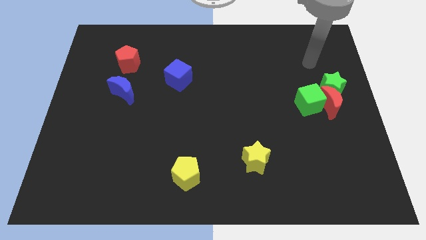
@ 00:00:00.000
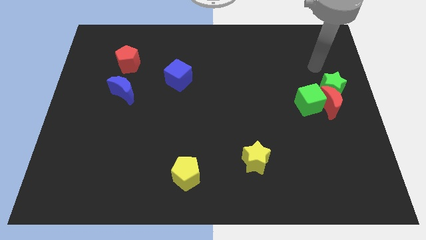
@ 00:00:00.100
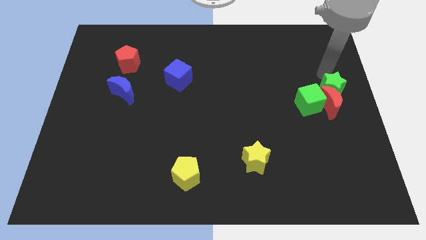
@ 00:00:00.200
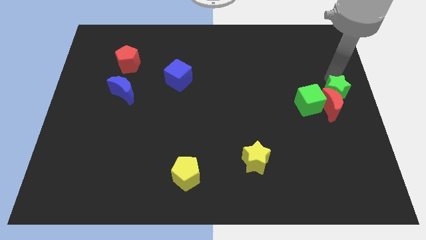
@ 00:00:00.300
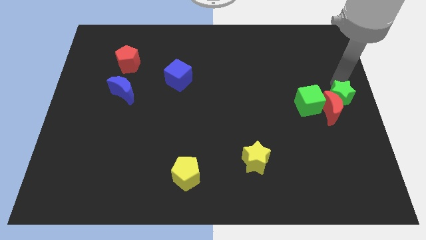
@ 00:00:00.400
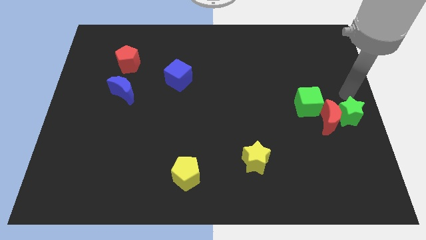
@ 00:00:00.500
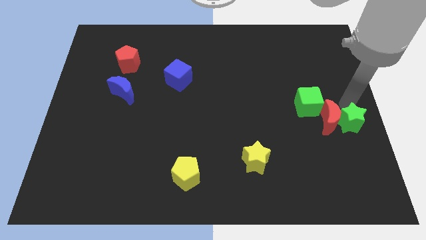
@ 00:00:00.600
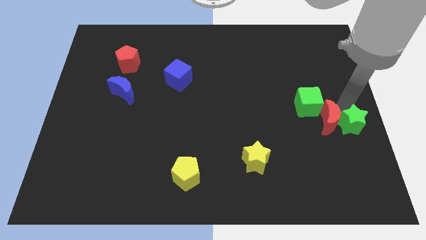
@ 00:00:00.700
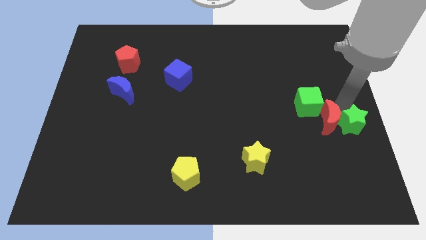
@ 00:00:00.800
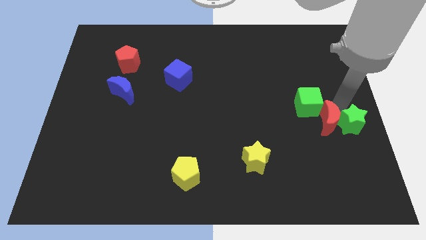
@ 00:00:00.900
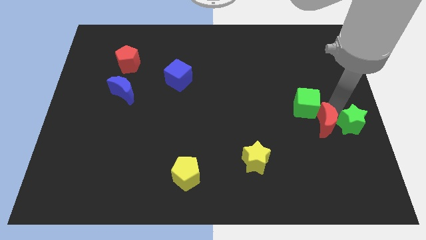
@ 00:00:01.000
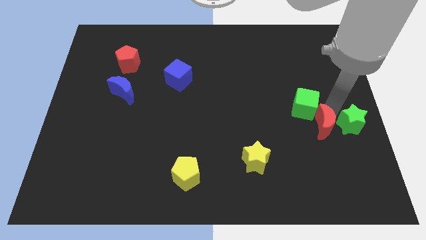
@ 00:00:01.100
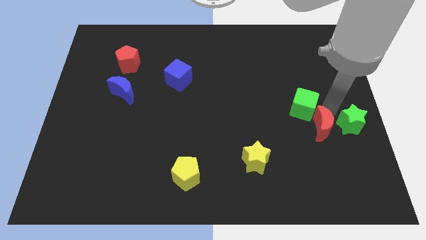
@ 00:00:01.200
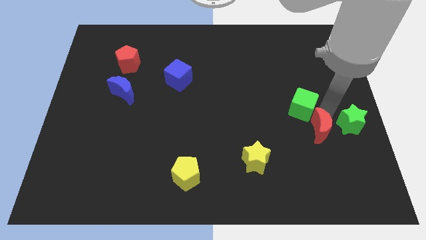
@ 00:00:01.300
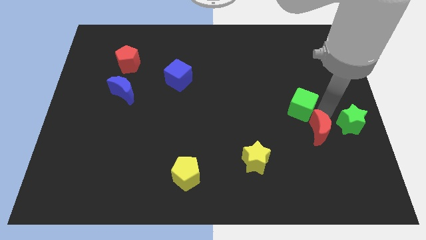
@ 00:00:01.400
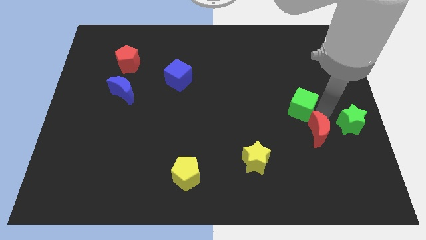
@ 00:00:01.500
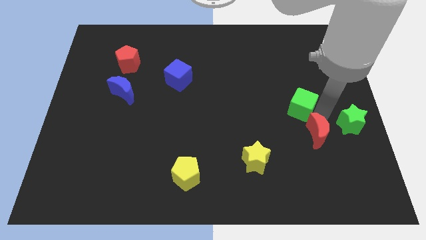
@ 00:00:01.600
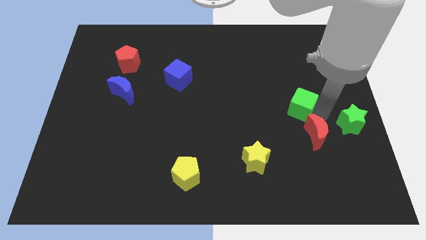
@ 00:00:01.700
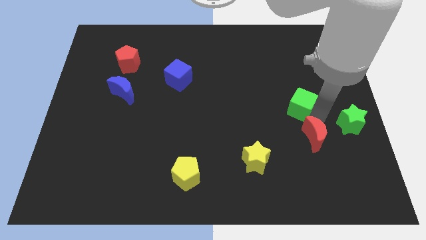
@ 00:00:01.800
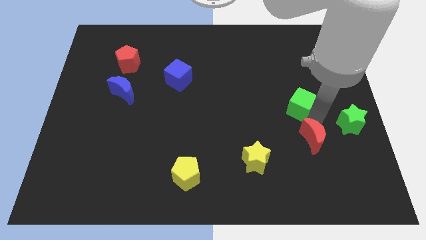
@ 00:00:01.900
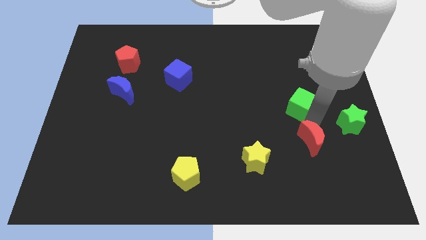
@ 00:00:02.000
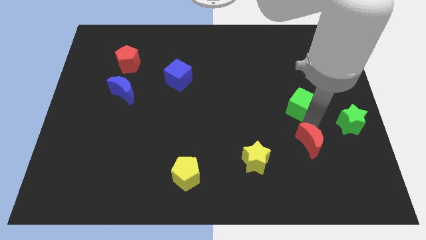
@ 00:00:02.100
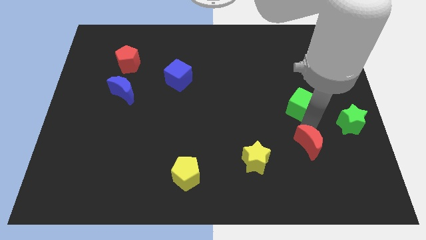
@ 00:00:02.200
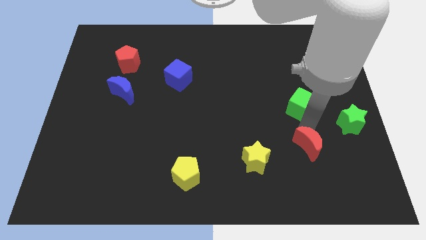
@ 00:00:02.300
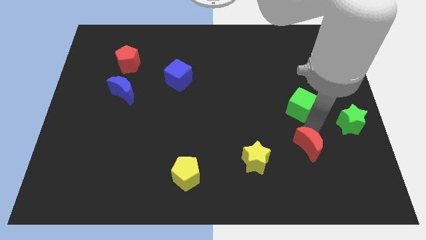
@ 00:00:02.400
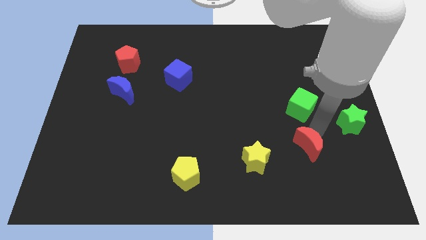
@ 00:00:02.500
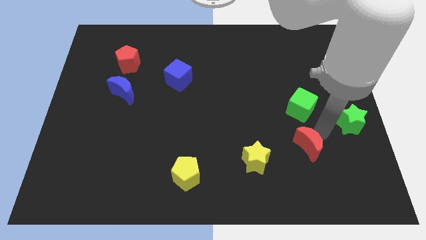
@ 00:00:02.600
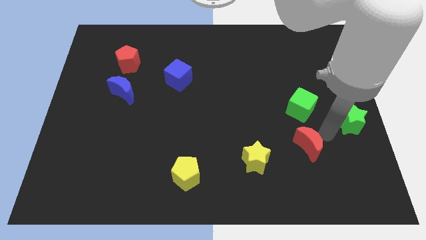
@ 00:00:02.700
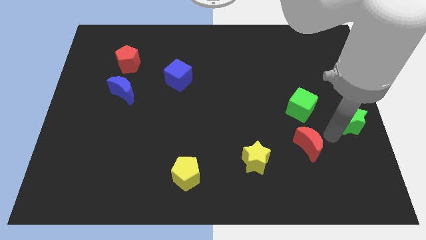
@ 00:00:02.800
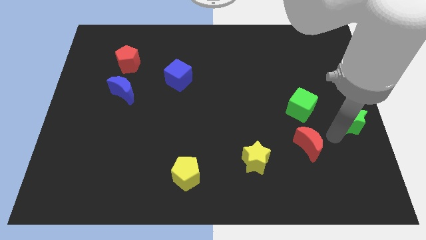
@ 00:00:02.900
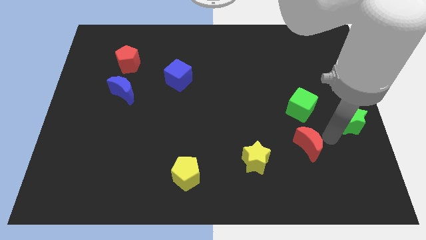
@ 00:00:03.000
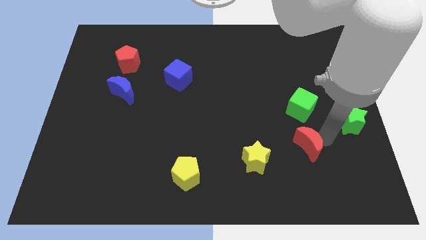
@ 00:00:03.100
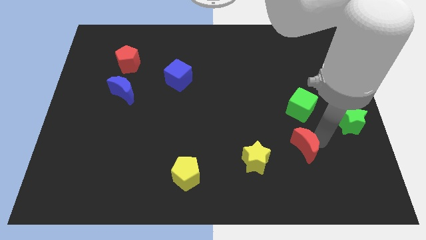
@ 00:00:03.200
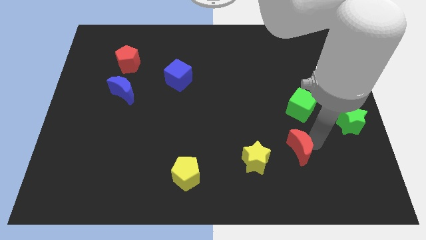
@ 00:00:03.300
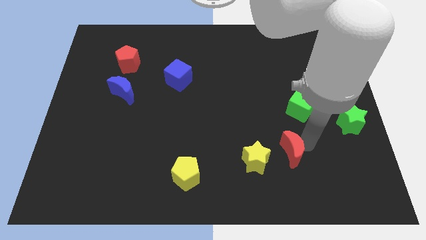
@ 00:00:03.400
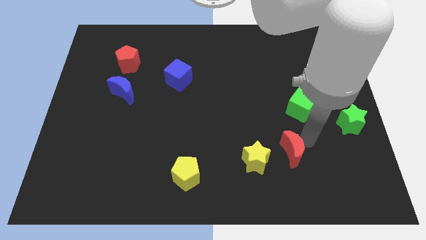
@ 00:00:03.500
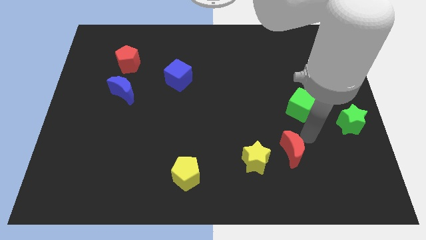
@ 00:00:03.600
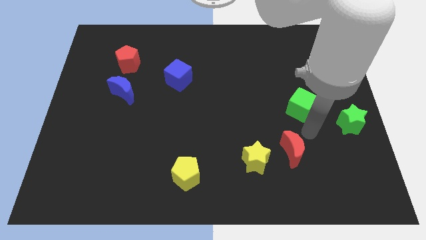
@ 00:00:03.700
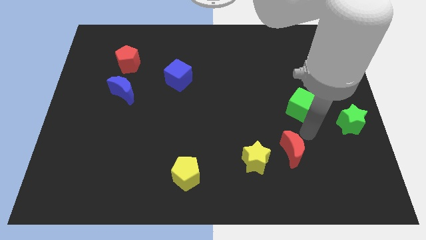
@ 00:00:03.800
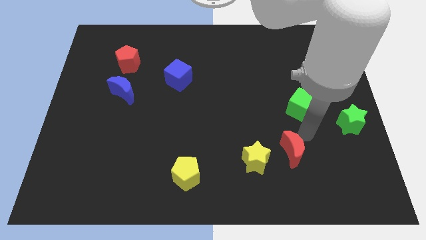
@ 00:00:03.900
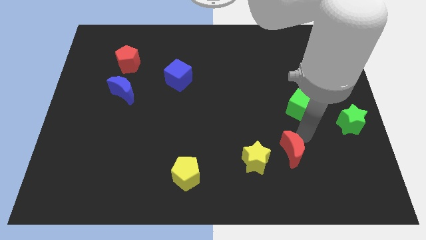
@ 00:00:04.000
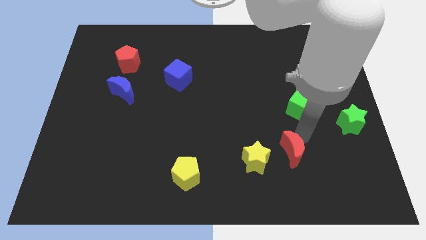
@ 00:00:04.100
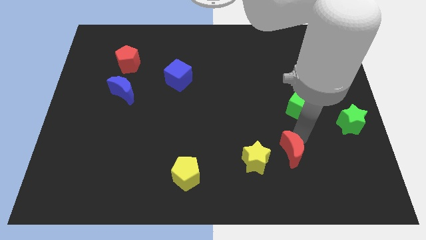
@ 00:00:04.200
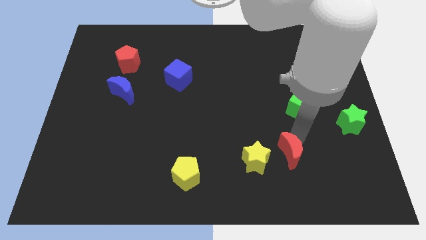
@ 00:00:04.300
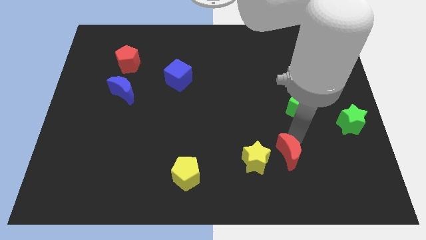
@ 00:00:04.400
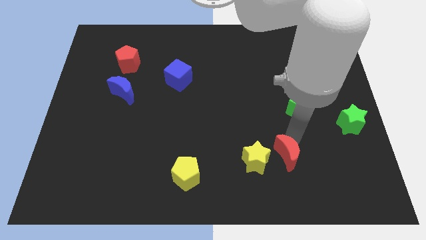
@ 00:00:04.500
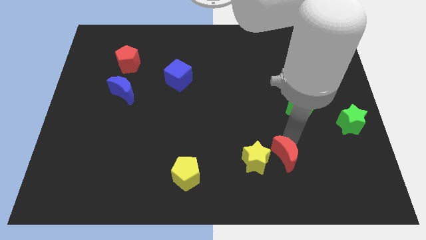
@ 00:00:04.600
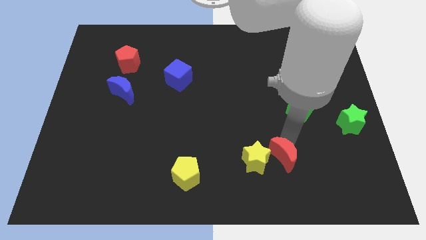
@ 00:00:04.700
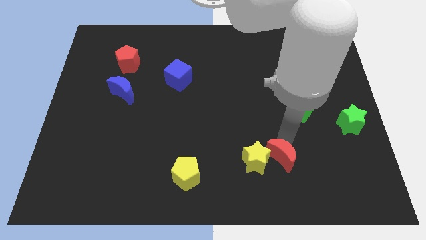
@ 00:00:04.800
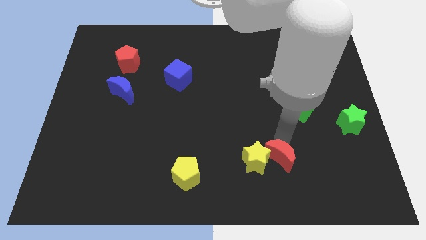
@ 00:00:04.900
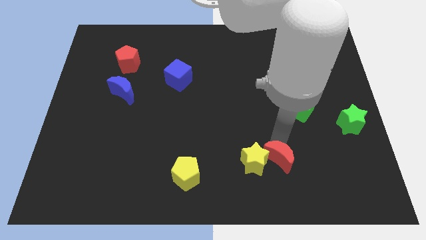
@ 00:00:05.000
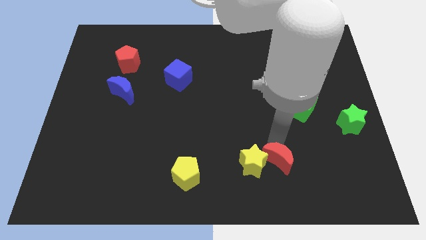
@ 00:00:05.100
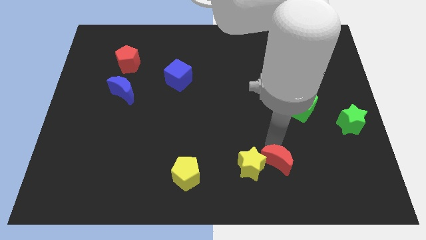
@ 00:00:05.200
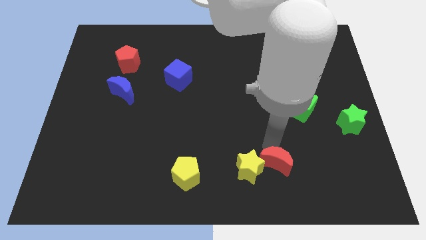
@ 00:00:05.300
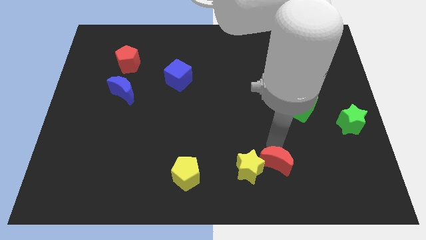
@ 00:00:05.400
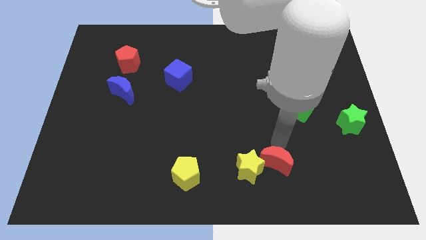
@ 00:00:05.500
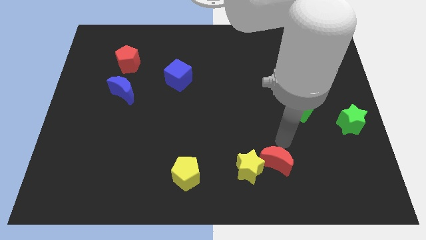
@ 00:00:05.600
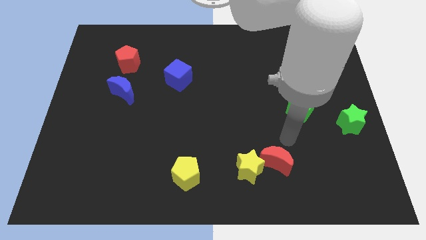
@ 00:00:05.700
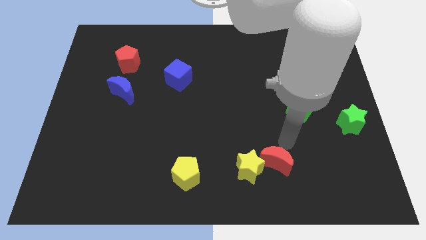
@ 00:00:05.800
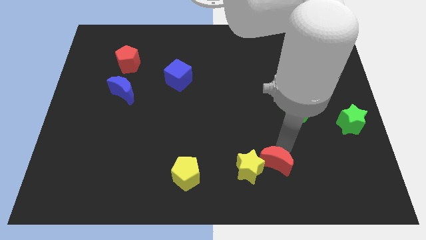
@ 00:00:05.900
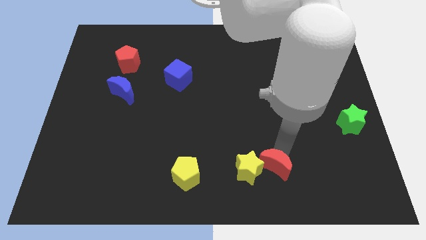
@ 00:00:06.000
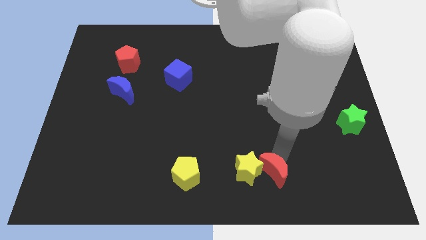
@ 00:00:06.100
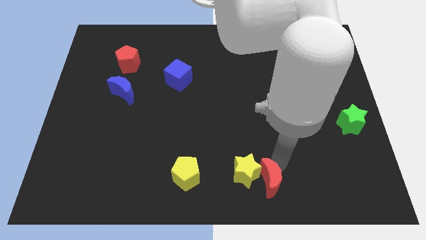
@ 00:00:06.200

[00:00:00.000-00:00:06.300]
move the red moon to the bottom

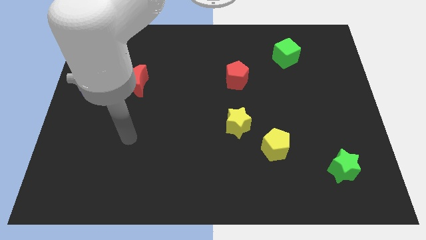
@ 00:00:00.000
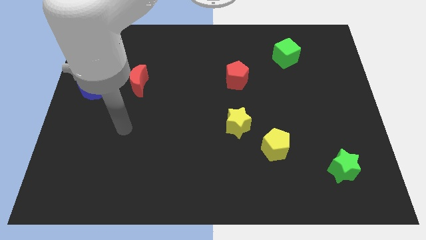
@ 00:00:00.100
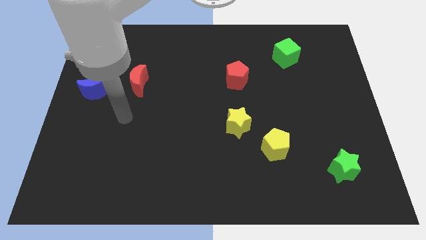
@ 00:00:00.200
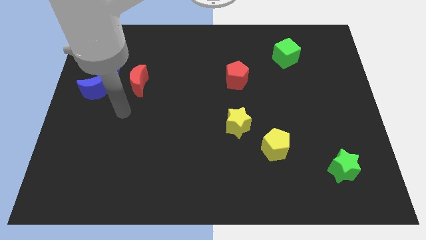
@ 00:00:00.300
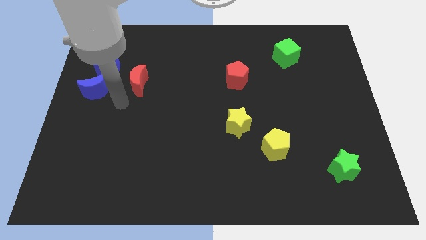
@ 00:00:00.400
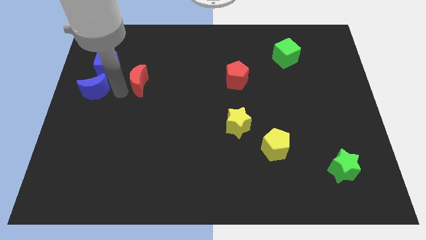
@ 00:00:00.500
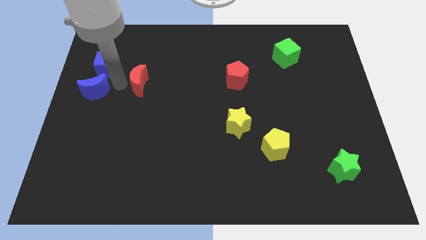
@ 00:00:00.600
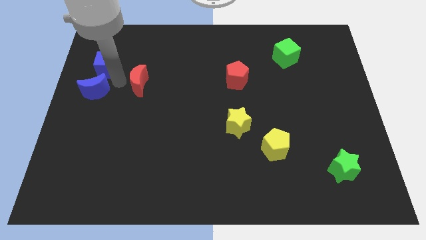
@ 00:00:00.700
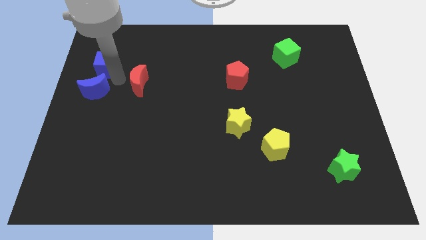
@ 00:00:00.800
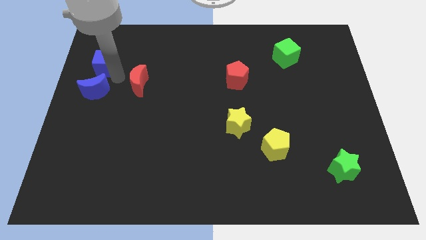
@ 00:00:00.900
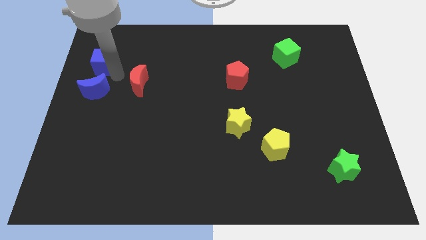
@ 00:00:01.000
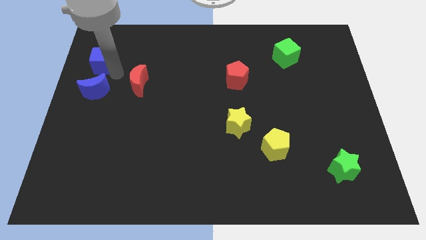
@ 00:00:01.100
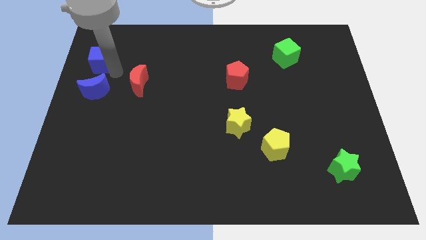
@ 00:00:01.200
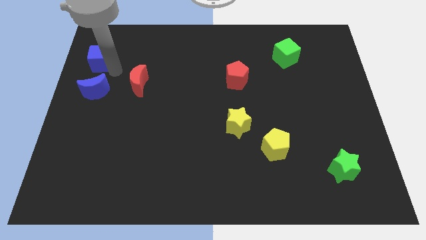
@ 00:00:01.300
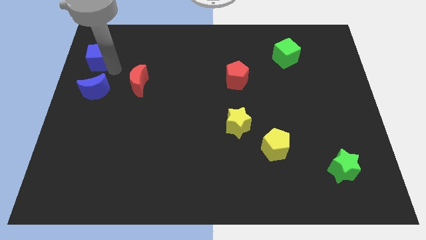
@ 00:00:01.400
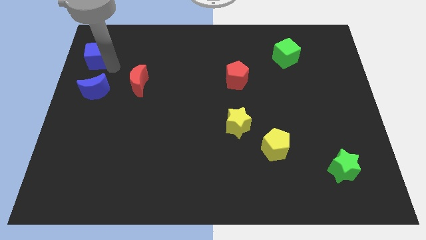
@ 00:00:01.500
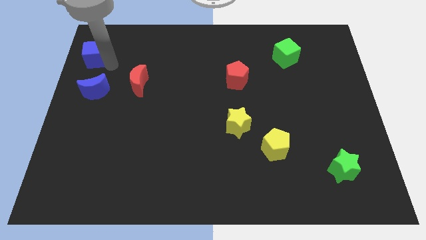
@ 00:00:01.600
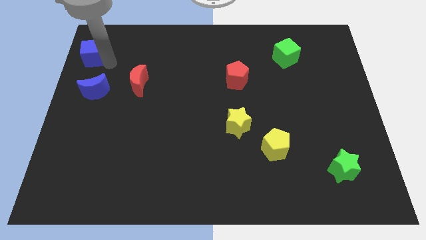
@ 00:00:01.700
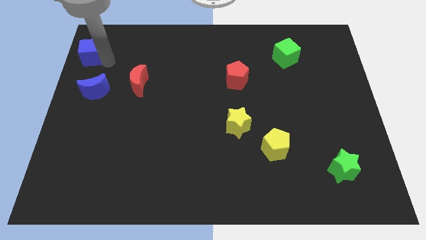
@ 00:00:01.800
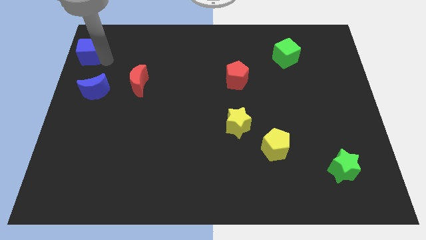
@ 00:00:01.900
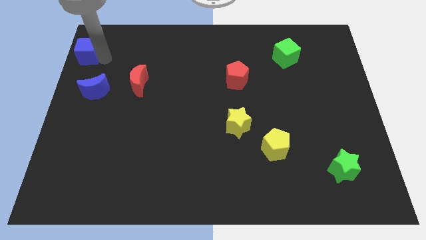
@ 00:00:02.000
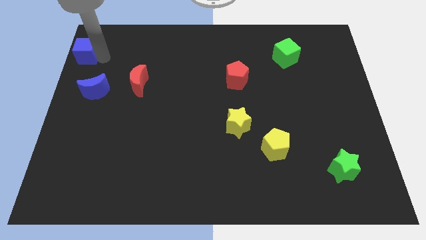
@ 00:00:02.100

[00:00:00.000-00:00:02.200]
move the blue cube to the top left of the board
